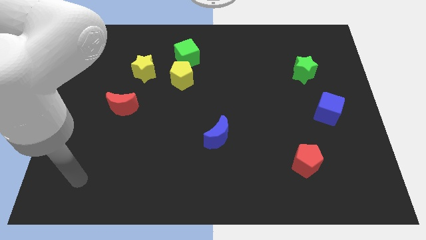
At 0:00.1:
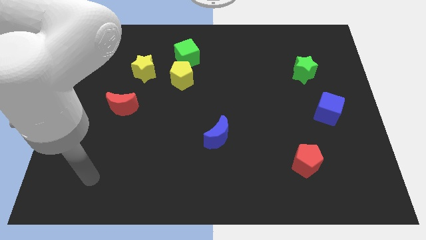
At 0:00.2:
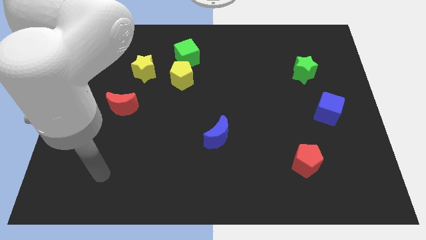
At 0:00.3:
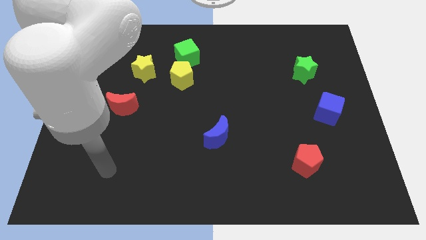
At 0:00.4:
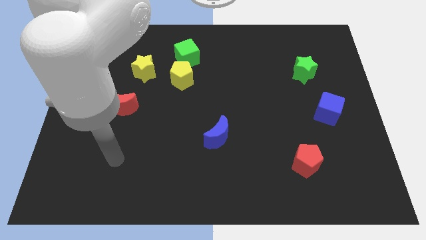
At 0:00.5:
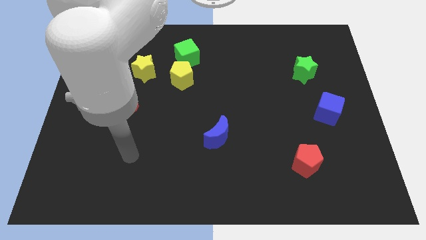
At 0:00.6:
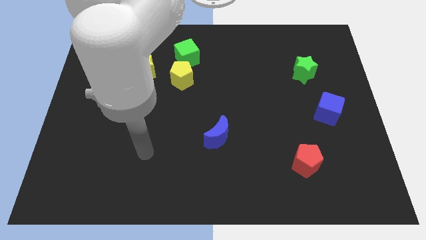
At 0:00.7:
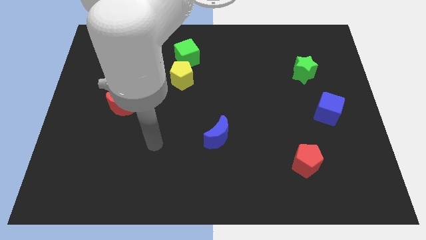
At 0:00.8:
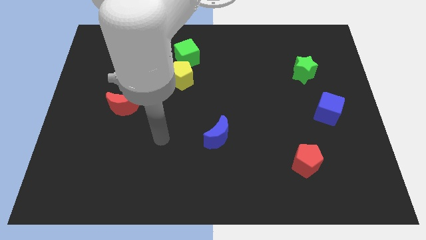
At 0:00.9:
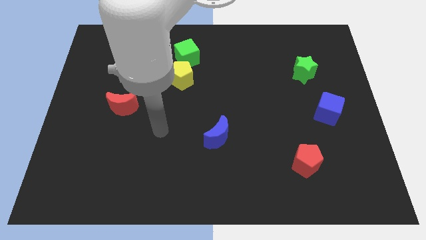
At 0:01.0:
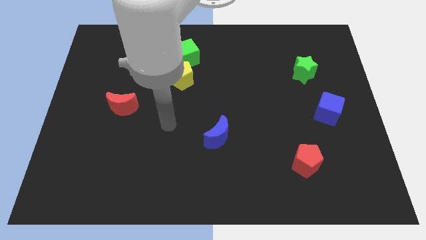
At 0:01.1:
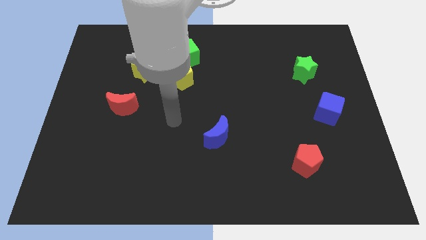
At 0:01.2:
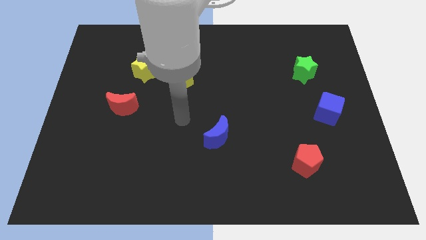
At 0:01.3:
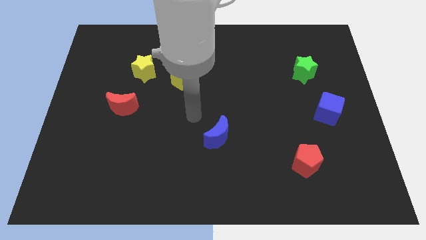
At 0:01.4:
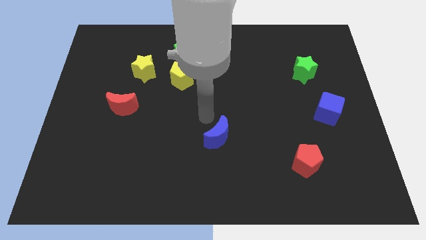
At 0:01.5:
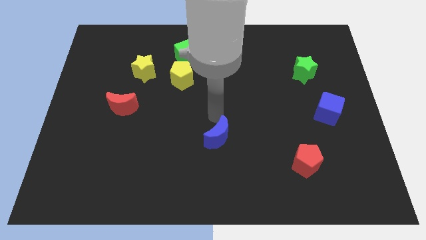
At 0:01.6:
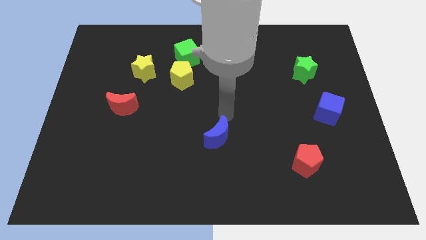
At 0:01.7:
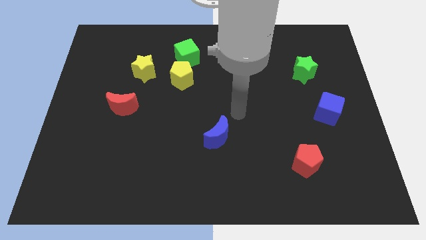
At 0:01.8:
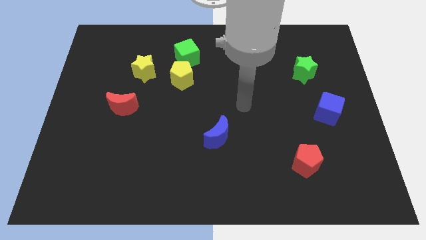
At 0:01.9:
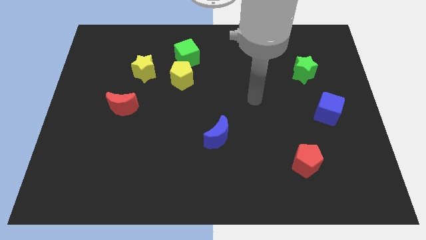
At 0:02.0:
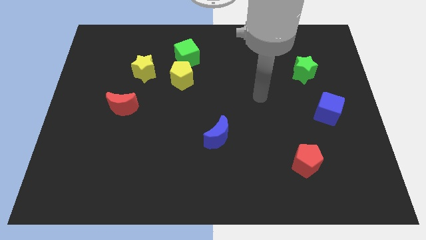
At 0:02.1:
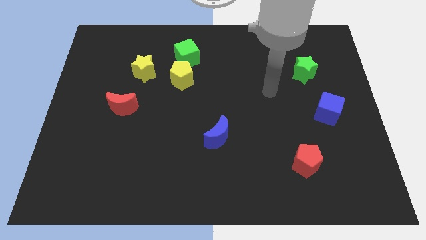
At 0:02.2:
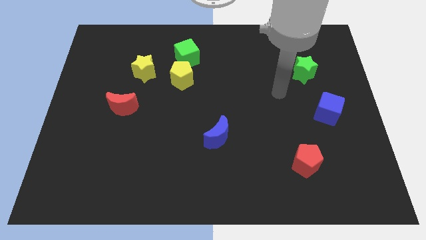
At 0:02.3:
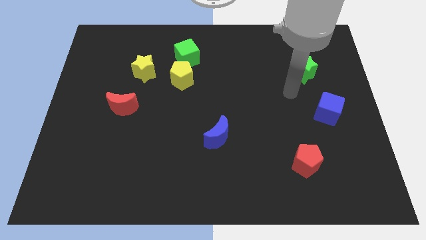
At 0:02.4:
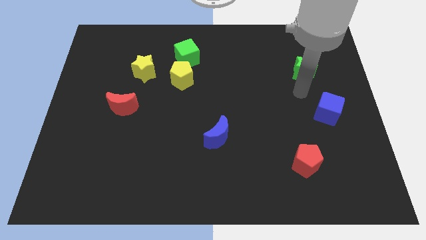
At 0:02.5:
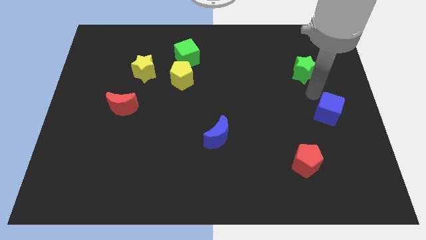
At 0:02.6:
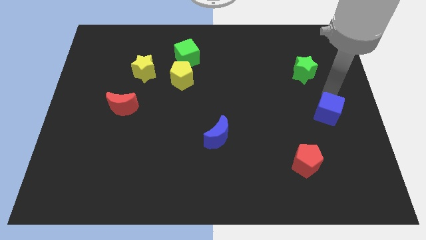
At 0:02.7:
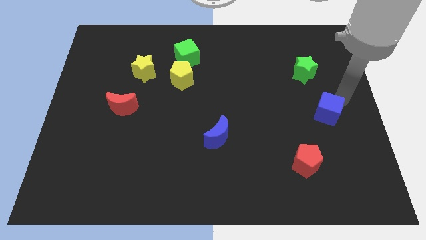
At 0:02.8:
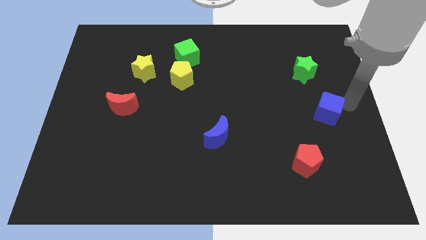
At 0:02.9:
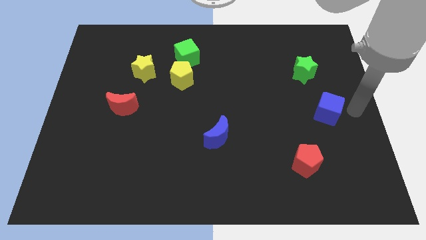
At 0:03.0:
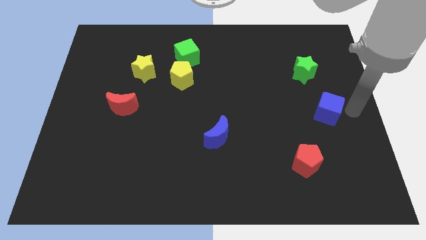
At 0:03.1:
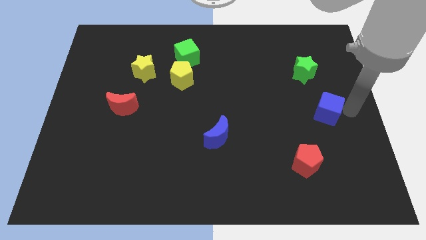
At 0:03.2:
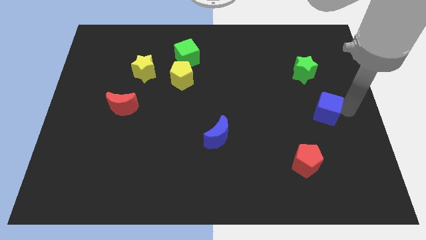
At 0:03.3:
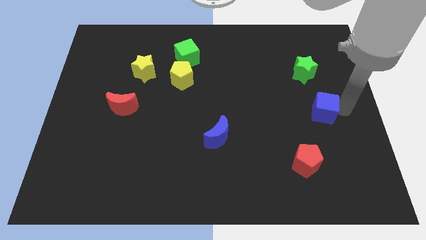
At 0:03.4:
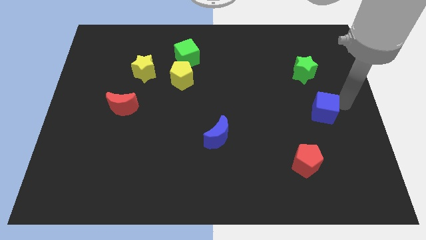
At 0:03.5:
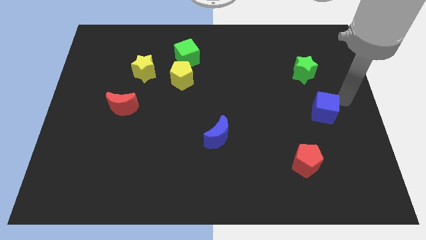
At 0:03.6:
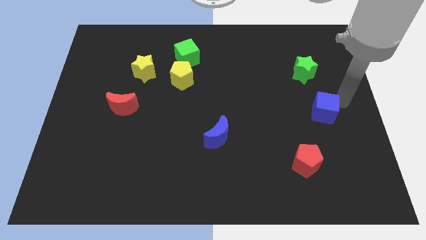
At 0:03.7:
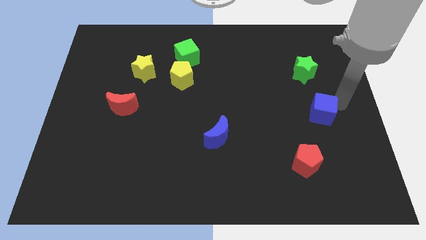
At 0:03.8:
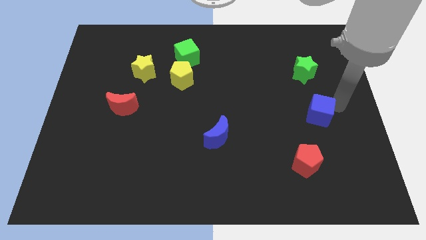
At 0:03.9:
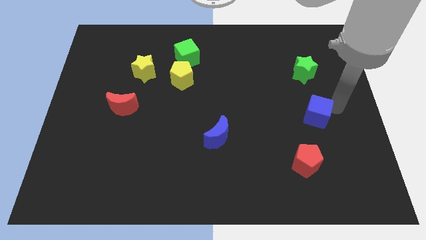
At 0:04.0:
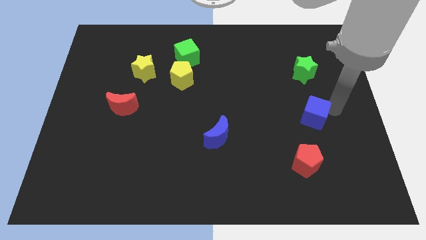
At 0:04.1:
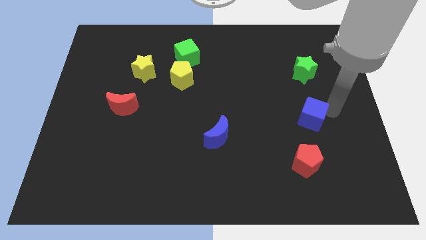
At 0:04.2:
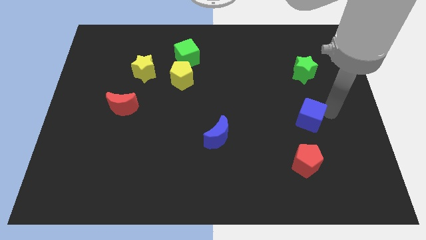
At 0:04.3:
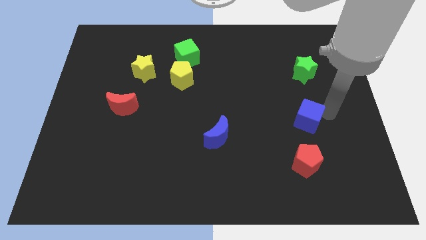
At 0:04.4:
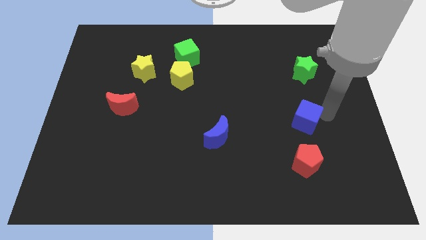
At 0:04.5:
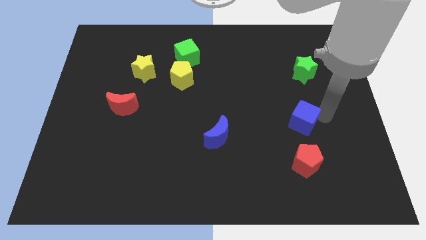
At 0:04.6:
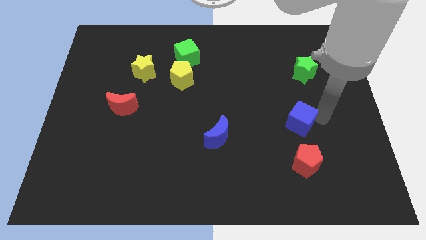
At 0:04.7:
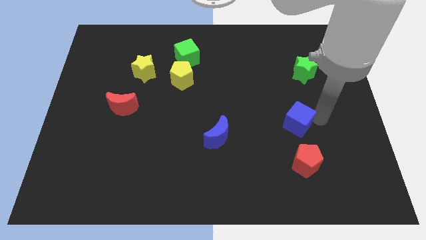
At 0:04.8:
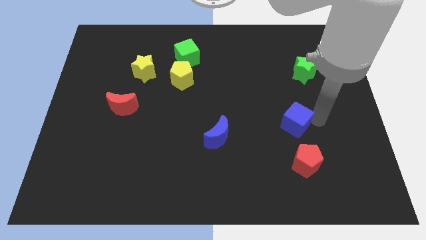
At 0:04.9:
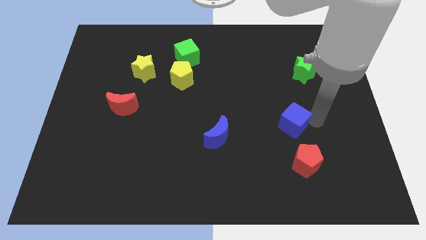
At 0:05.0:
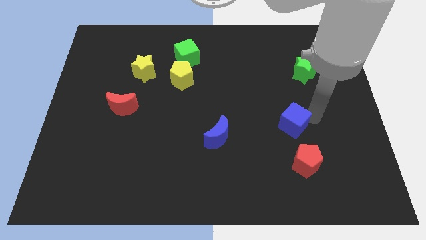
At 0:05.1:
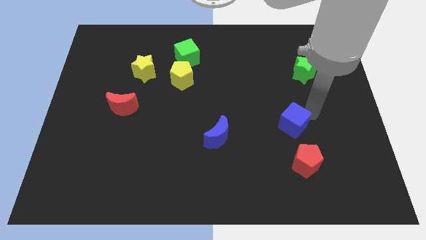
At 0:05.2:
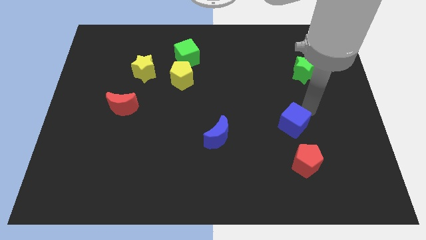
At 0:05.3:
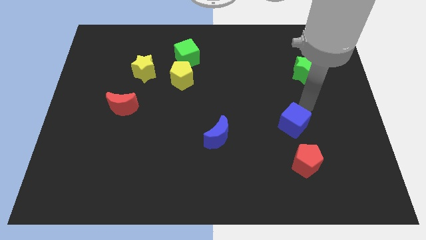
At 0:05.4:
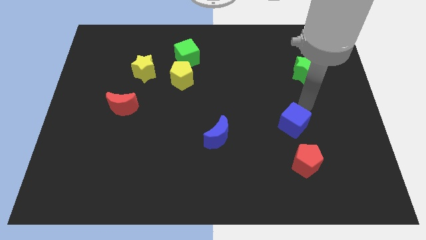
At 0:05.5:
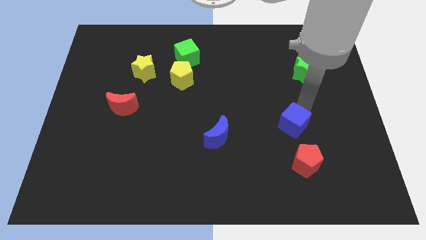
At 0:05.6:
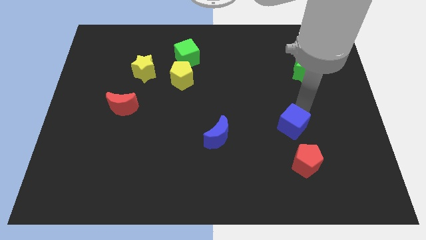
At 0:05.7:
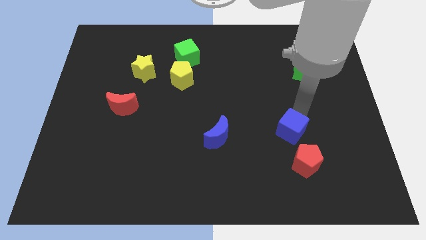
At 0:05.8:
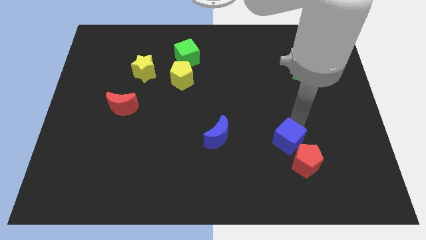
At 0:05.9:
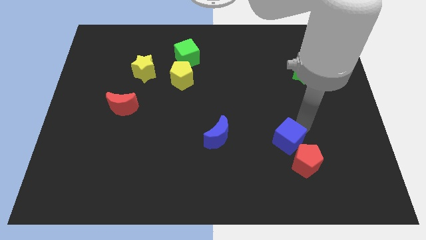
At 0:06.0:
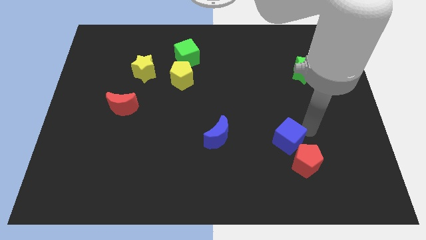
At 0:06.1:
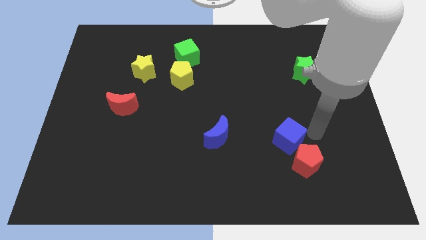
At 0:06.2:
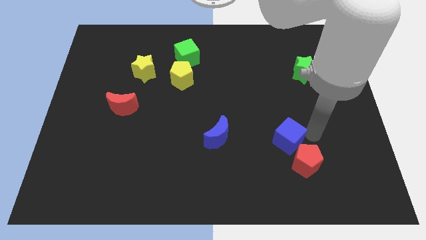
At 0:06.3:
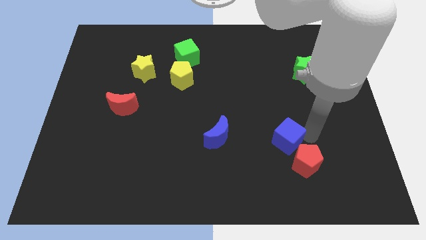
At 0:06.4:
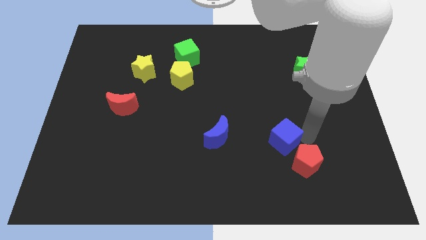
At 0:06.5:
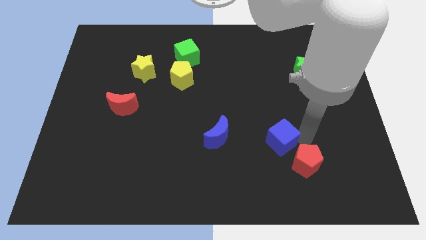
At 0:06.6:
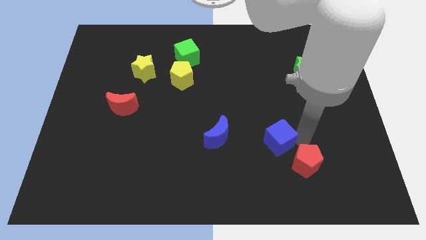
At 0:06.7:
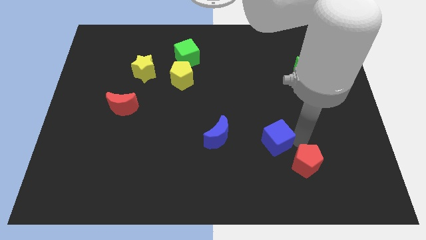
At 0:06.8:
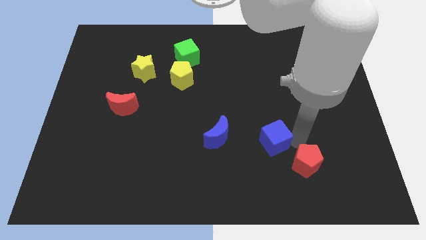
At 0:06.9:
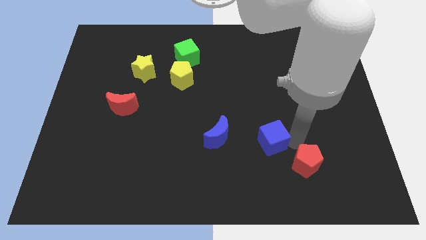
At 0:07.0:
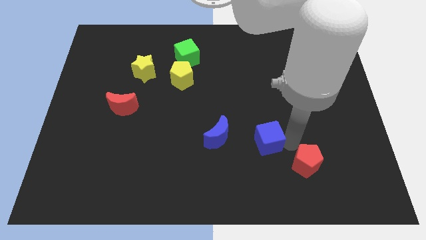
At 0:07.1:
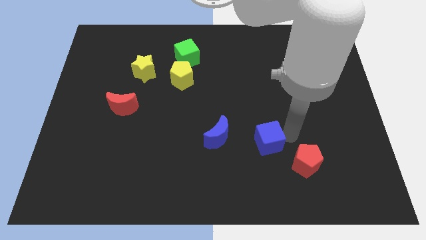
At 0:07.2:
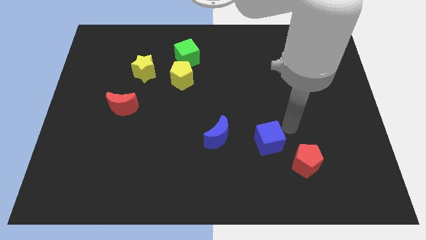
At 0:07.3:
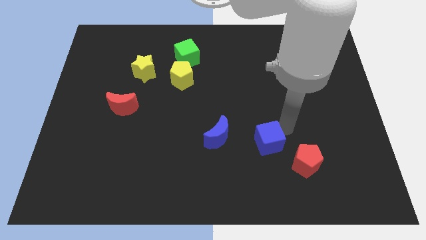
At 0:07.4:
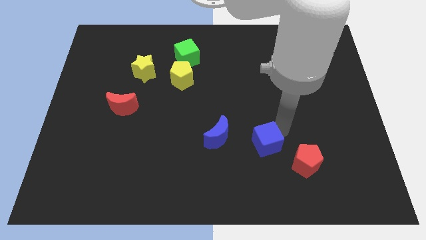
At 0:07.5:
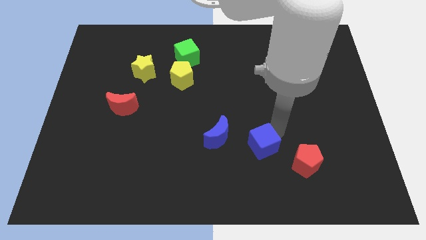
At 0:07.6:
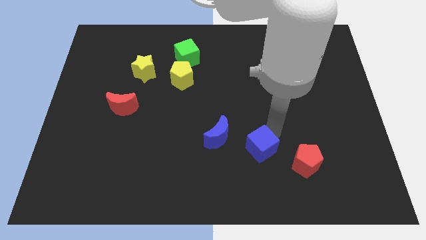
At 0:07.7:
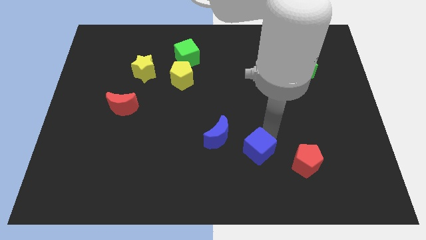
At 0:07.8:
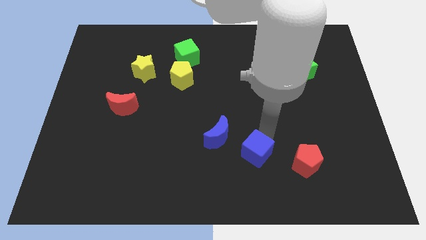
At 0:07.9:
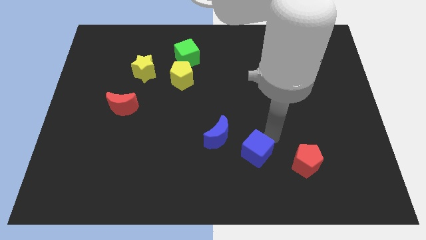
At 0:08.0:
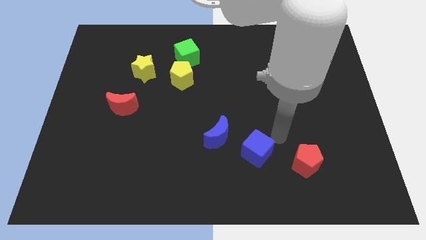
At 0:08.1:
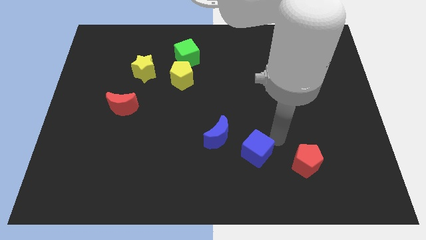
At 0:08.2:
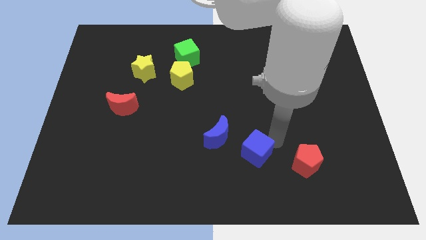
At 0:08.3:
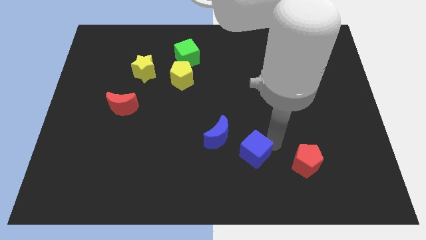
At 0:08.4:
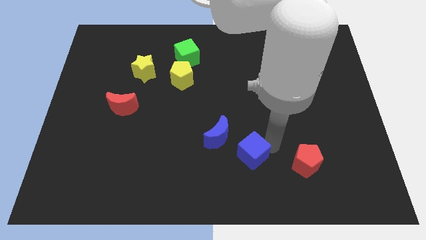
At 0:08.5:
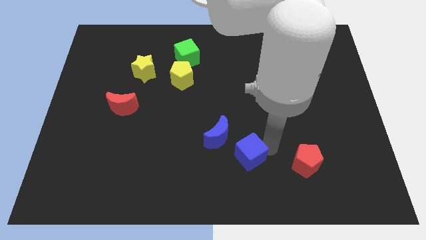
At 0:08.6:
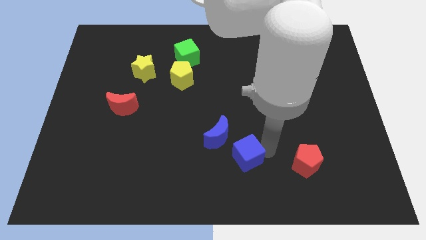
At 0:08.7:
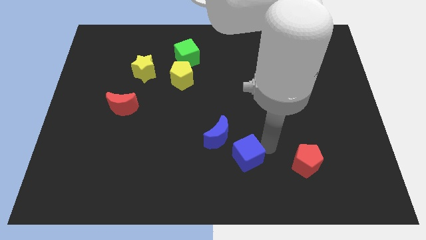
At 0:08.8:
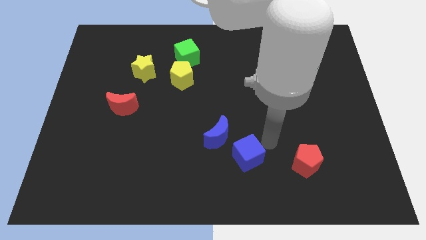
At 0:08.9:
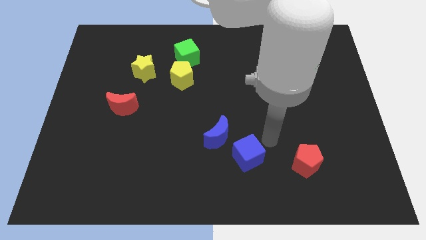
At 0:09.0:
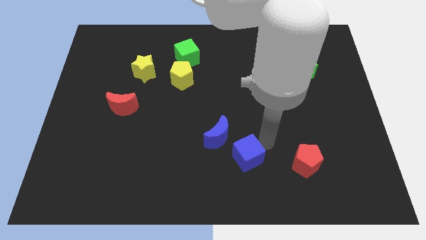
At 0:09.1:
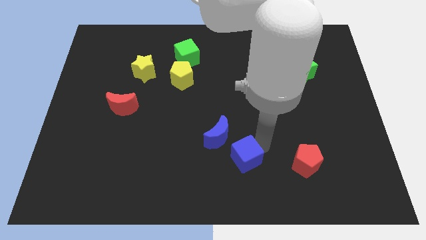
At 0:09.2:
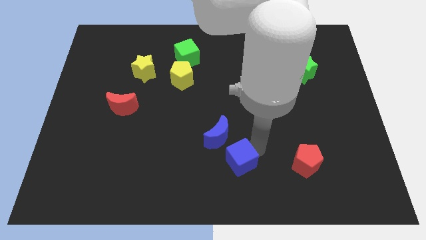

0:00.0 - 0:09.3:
push the blue cube below the blue moon
